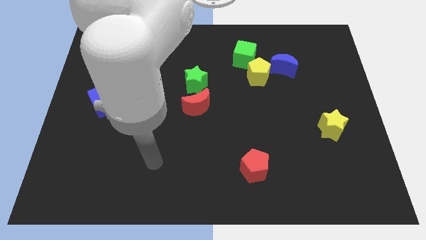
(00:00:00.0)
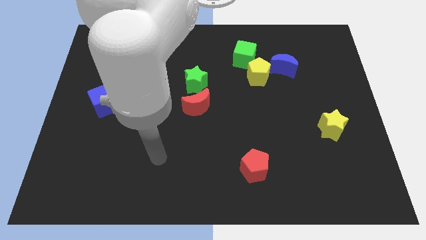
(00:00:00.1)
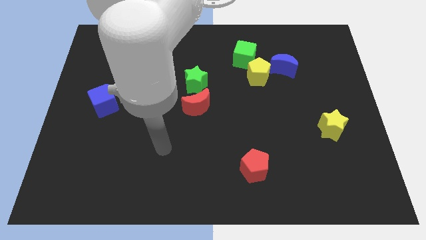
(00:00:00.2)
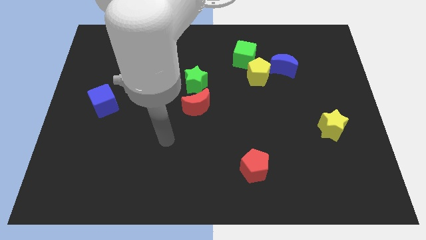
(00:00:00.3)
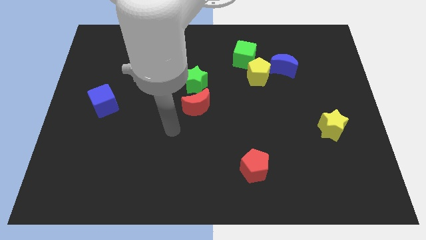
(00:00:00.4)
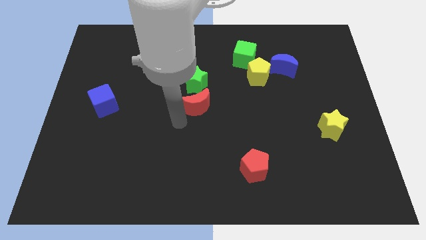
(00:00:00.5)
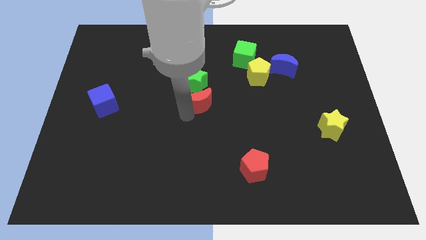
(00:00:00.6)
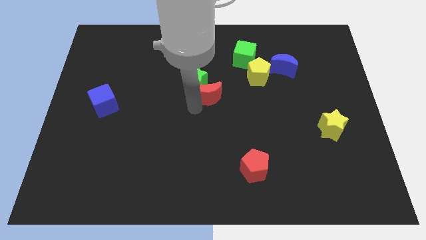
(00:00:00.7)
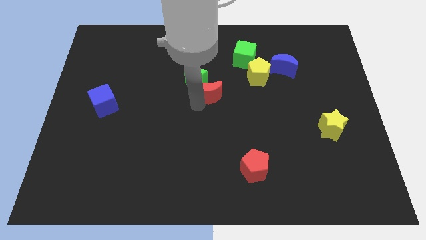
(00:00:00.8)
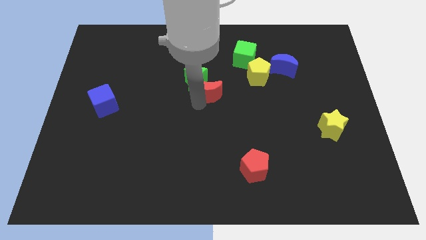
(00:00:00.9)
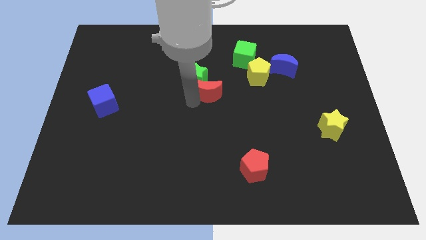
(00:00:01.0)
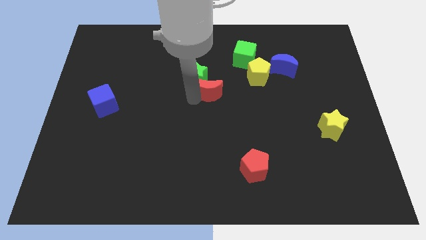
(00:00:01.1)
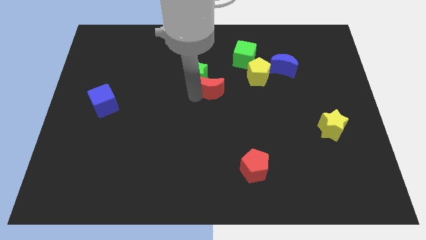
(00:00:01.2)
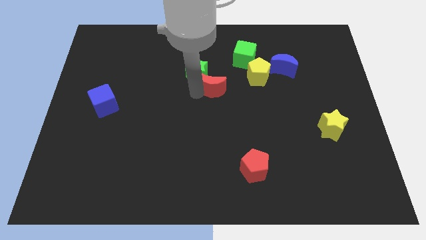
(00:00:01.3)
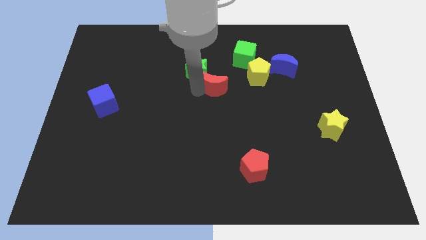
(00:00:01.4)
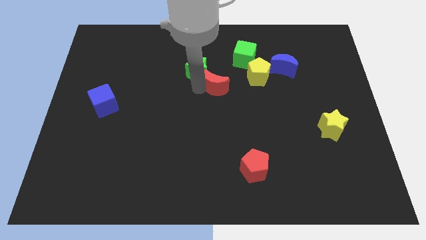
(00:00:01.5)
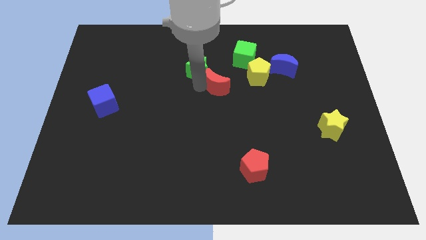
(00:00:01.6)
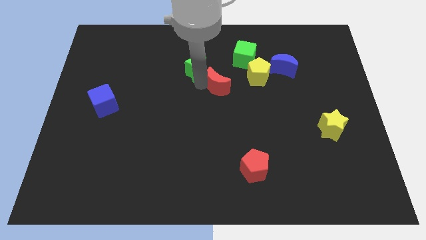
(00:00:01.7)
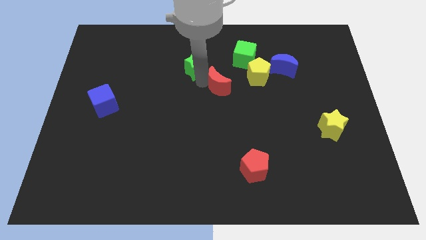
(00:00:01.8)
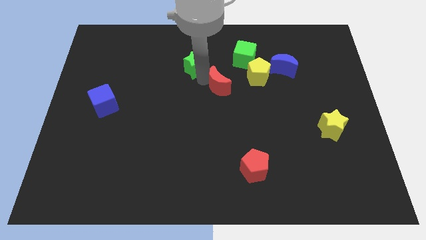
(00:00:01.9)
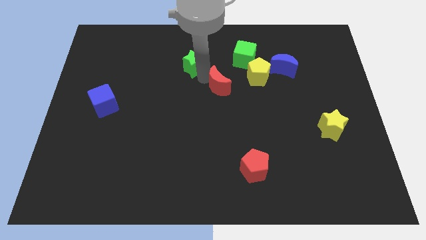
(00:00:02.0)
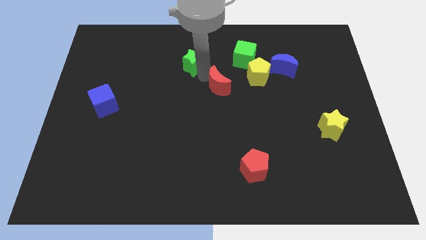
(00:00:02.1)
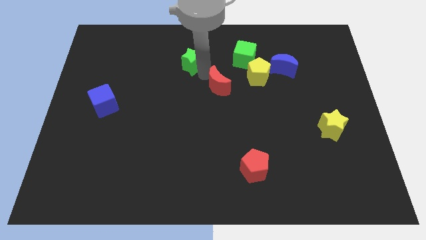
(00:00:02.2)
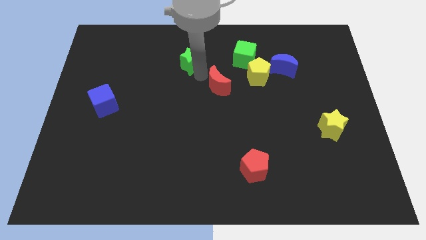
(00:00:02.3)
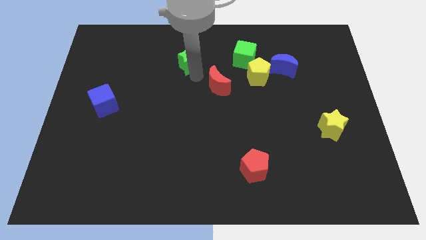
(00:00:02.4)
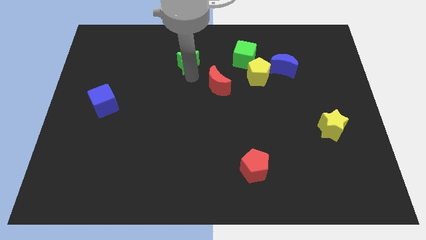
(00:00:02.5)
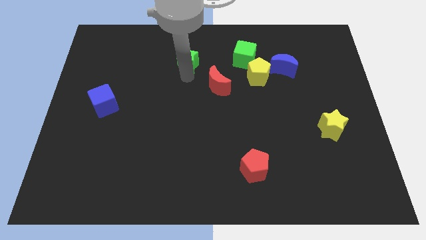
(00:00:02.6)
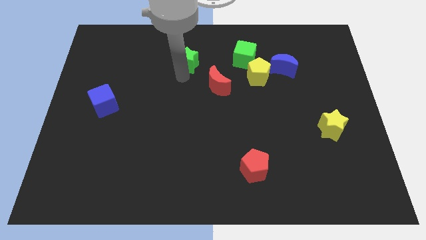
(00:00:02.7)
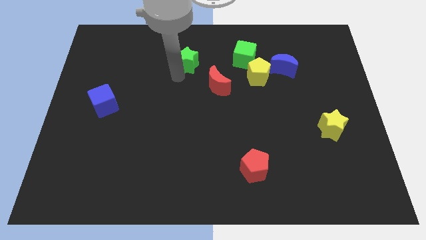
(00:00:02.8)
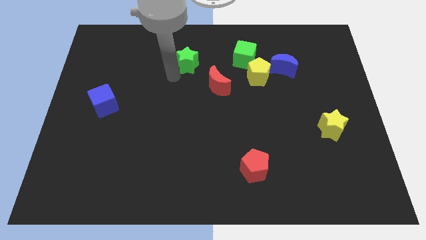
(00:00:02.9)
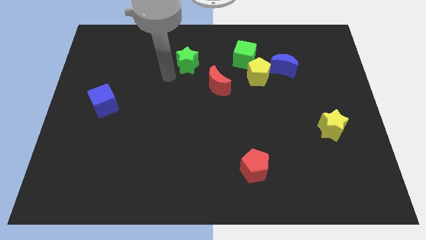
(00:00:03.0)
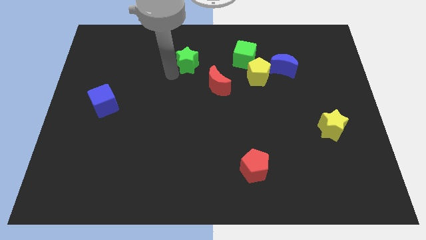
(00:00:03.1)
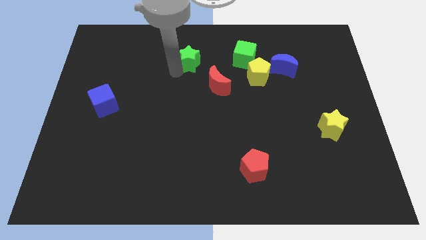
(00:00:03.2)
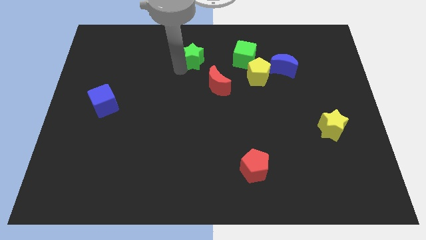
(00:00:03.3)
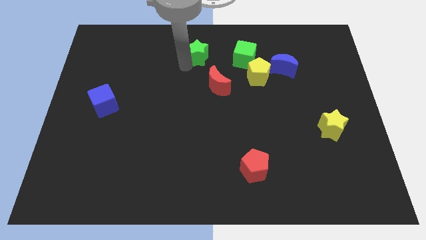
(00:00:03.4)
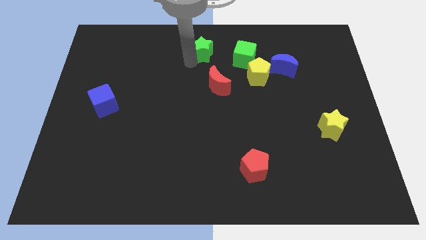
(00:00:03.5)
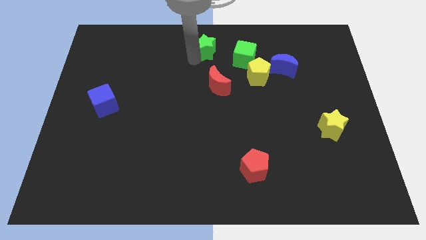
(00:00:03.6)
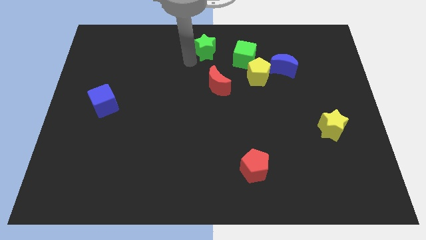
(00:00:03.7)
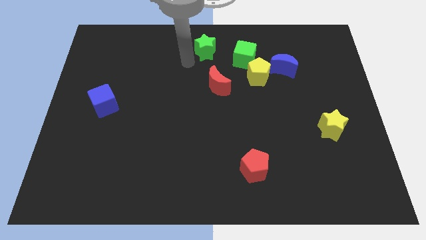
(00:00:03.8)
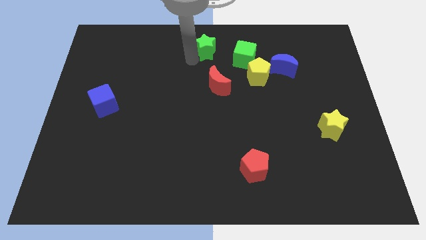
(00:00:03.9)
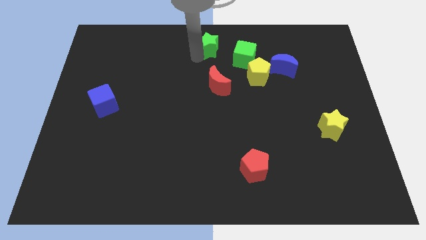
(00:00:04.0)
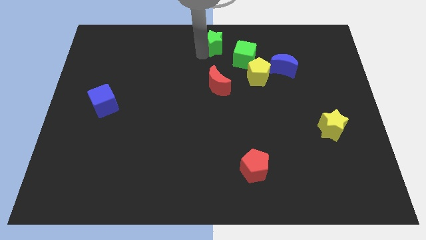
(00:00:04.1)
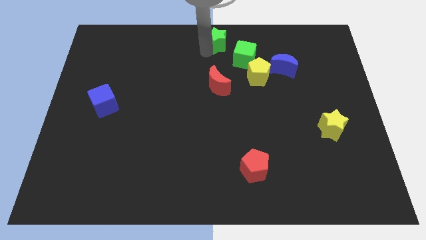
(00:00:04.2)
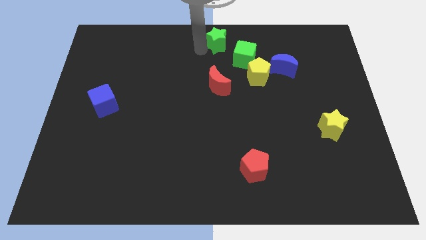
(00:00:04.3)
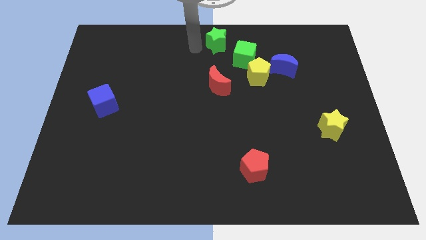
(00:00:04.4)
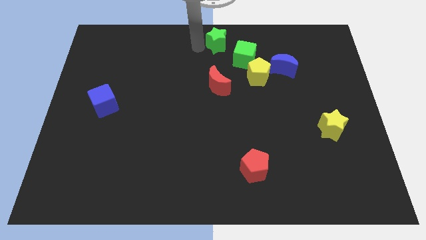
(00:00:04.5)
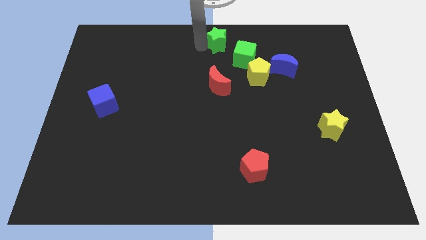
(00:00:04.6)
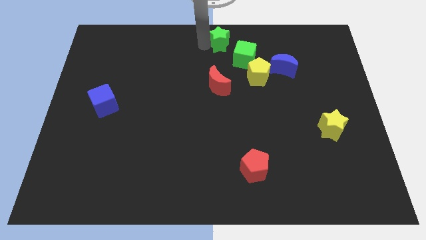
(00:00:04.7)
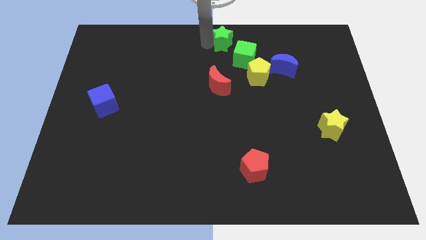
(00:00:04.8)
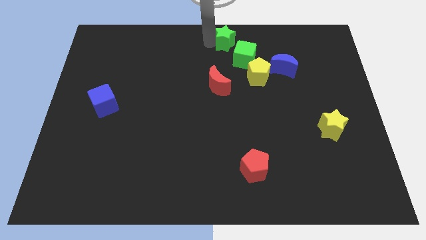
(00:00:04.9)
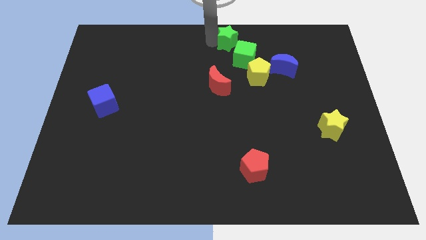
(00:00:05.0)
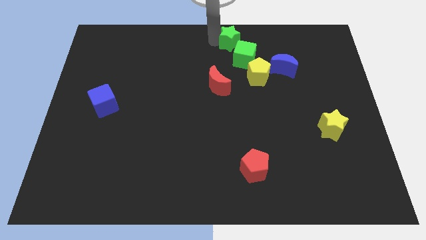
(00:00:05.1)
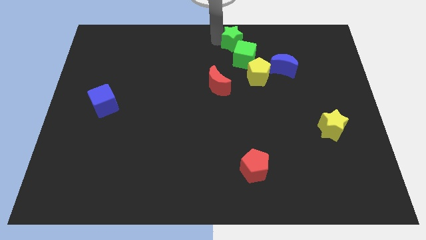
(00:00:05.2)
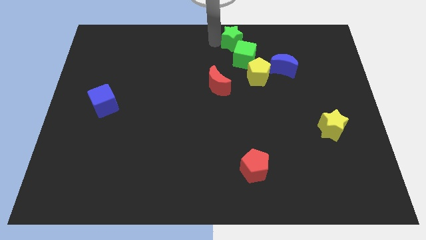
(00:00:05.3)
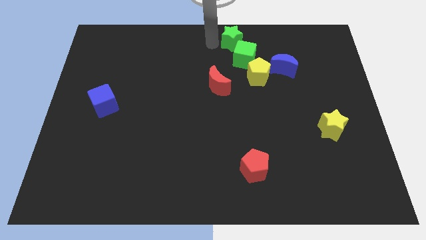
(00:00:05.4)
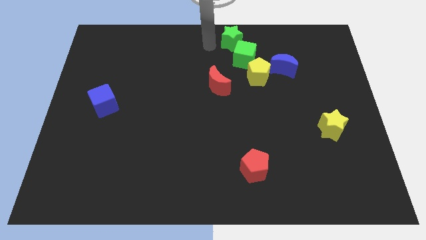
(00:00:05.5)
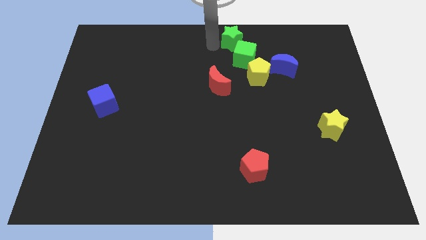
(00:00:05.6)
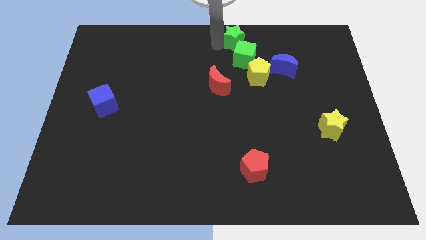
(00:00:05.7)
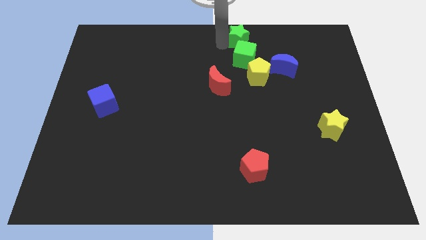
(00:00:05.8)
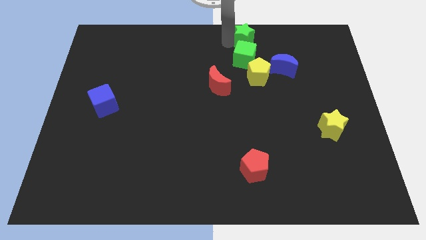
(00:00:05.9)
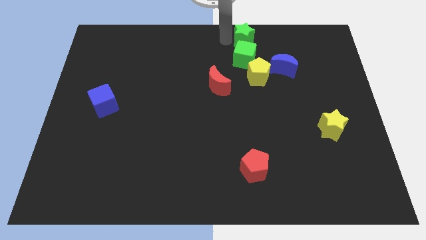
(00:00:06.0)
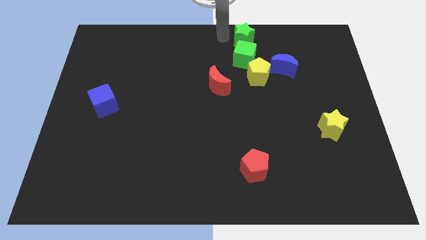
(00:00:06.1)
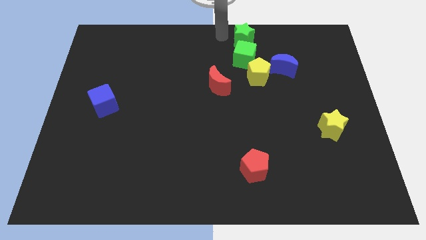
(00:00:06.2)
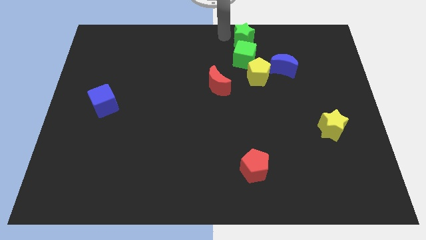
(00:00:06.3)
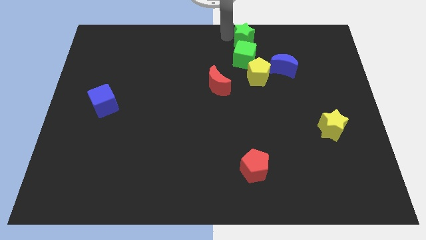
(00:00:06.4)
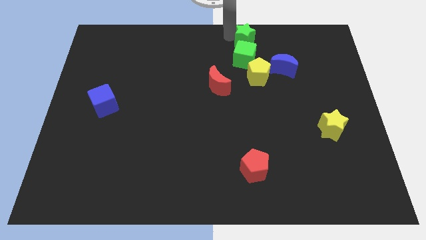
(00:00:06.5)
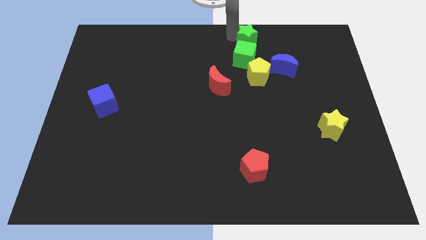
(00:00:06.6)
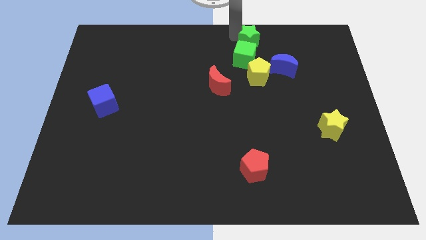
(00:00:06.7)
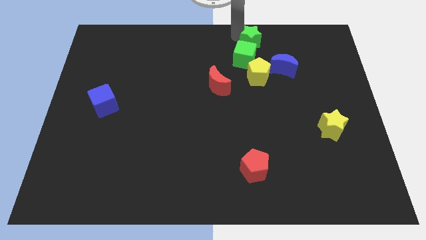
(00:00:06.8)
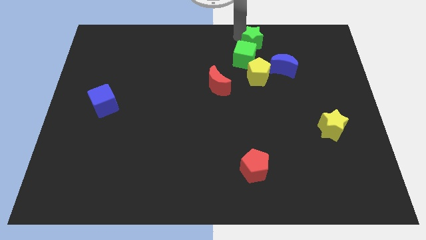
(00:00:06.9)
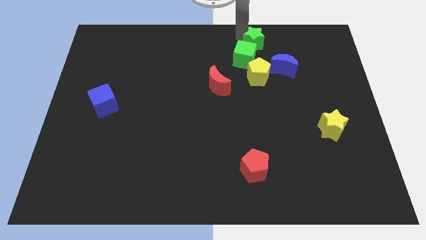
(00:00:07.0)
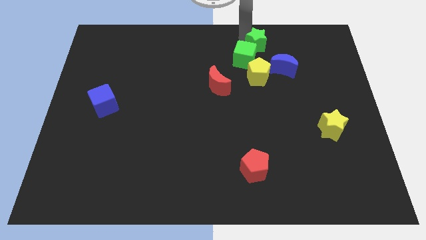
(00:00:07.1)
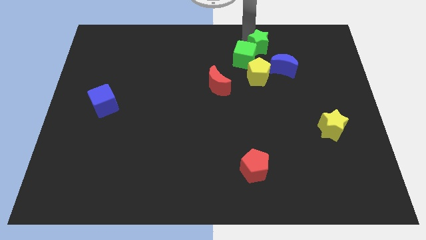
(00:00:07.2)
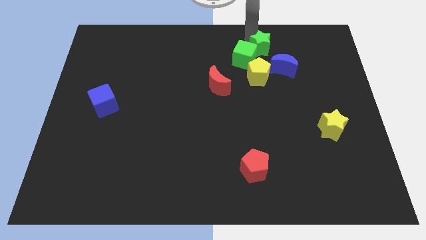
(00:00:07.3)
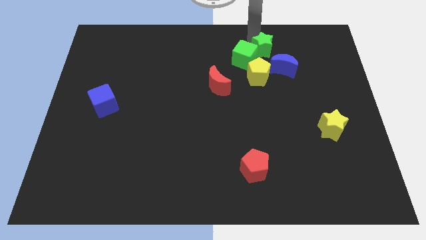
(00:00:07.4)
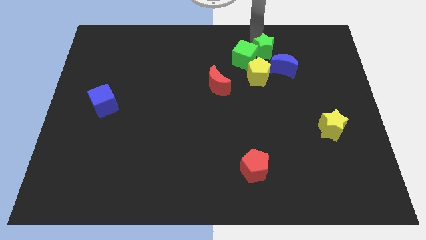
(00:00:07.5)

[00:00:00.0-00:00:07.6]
put the green star to the top right side of the yellow pentagon
